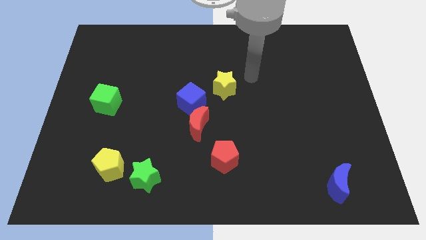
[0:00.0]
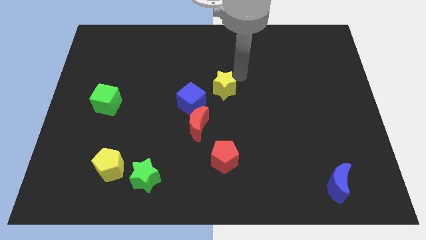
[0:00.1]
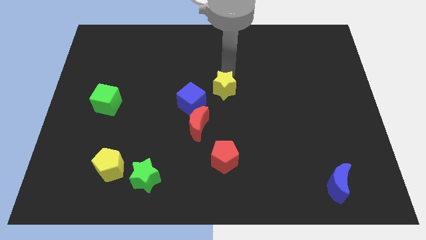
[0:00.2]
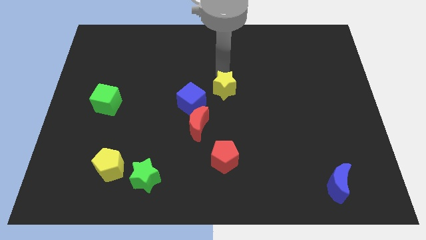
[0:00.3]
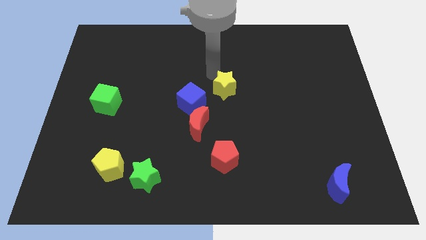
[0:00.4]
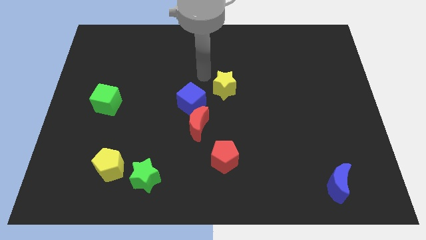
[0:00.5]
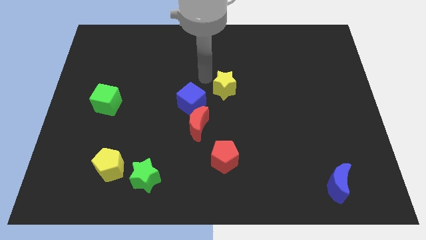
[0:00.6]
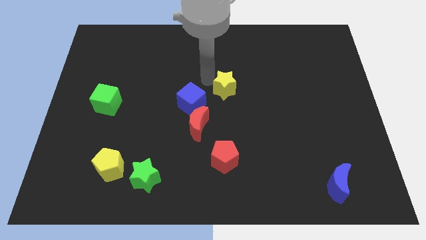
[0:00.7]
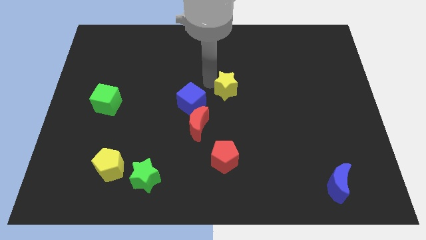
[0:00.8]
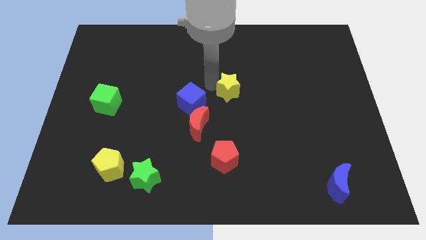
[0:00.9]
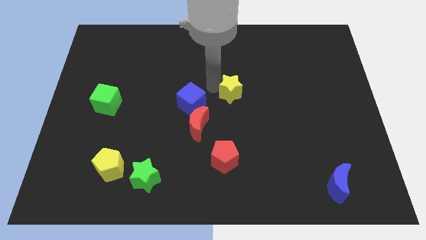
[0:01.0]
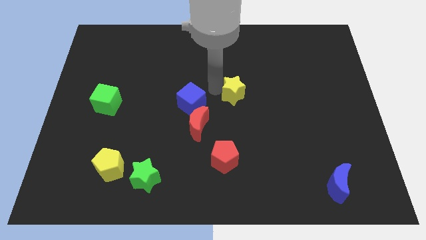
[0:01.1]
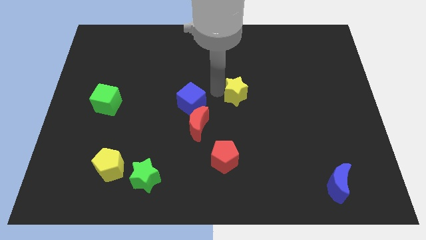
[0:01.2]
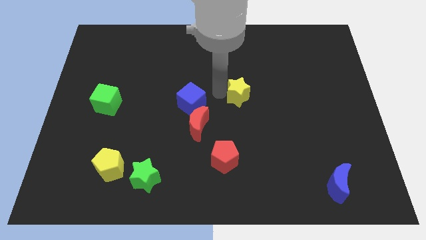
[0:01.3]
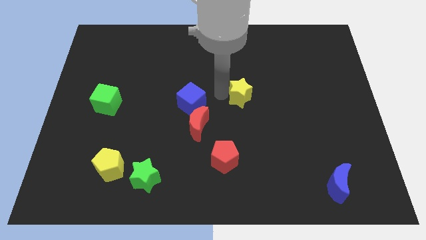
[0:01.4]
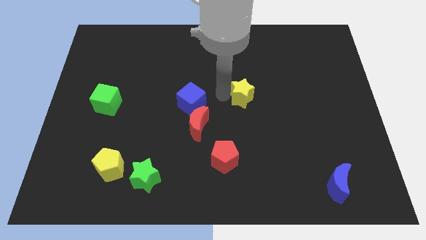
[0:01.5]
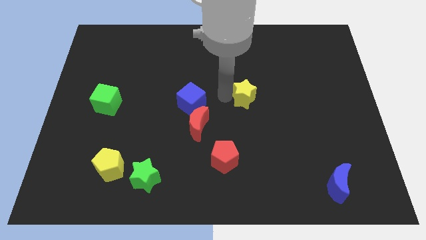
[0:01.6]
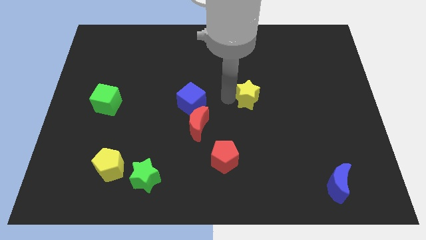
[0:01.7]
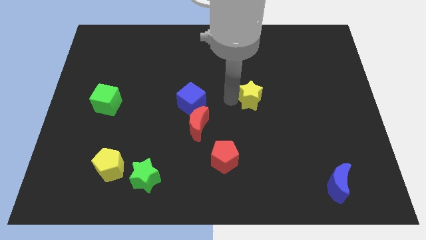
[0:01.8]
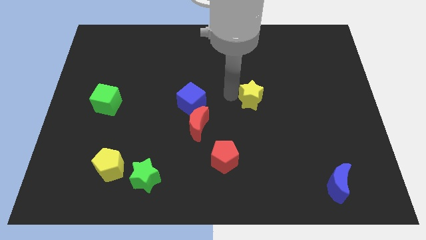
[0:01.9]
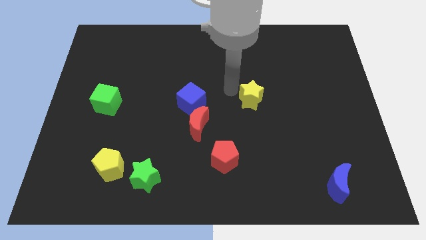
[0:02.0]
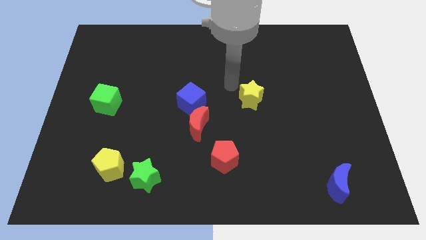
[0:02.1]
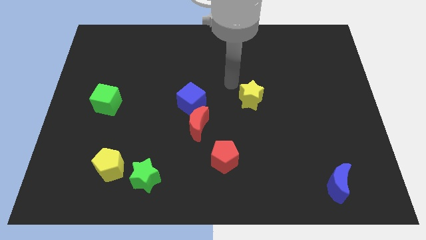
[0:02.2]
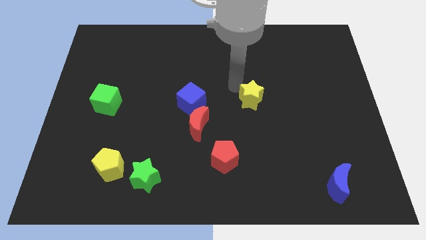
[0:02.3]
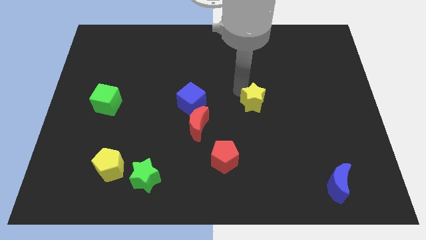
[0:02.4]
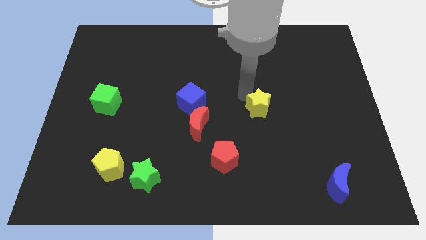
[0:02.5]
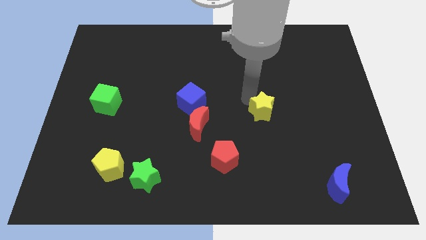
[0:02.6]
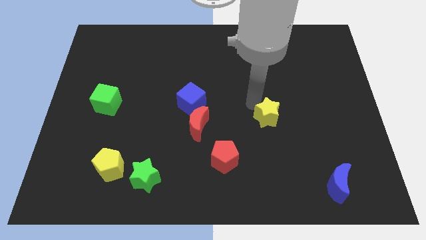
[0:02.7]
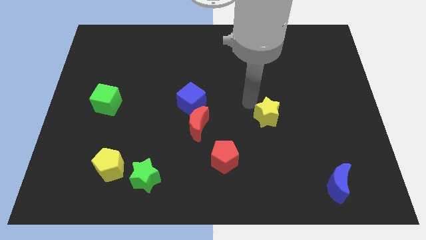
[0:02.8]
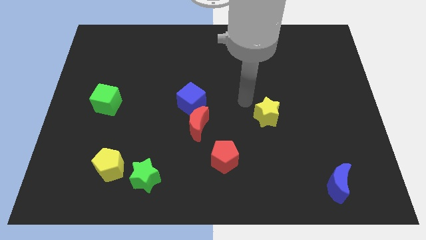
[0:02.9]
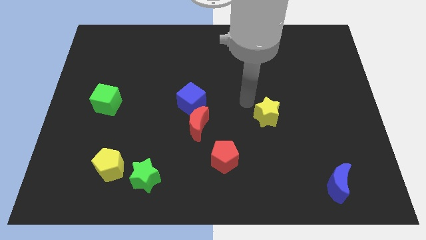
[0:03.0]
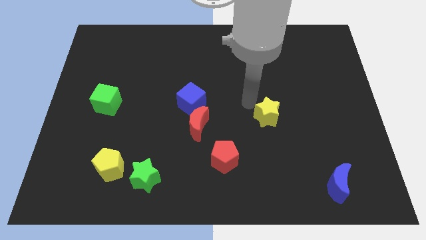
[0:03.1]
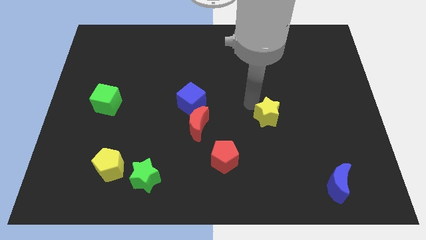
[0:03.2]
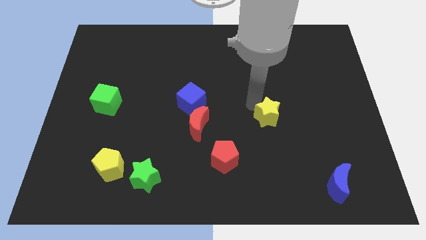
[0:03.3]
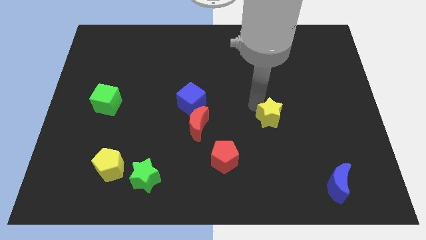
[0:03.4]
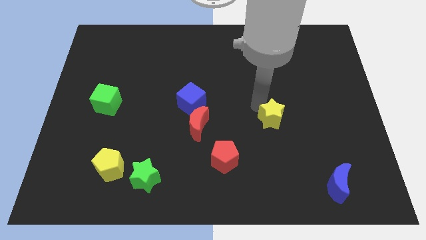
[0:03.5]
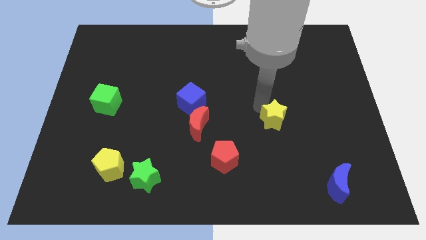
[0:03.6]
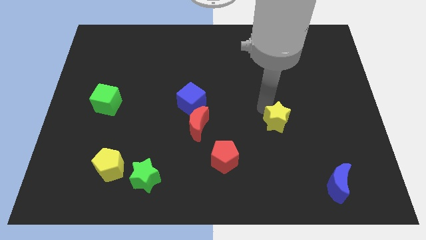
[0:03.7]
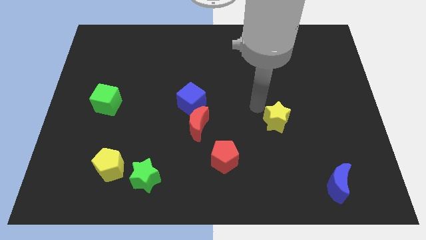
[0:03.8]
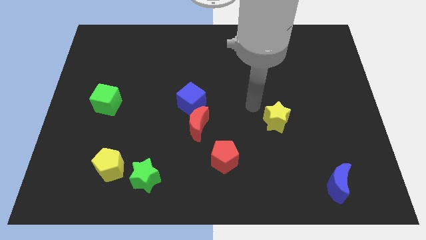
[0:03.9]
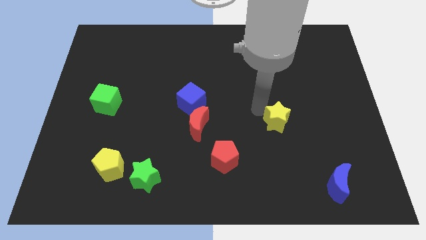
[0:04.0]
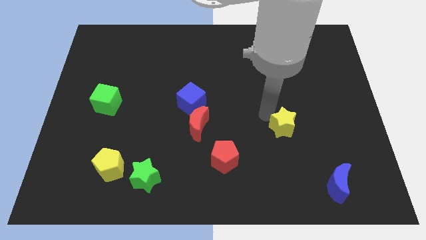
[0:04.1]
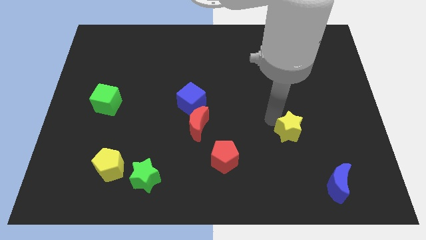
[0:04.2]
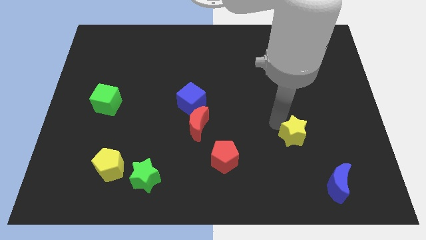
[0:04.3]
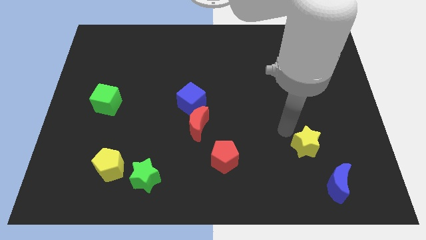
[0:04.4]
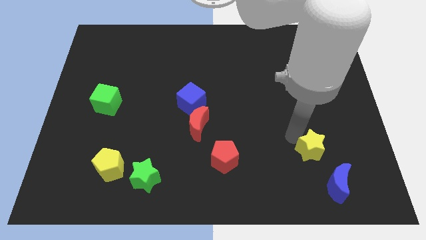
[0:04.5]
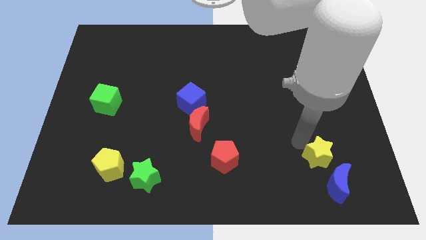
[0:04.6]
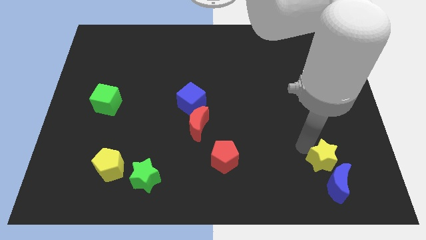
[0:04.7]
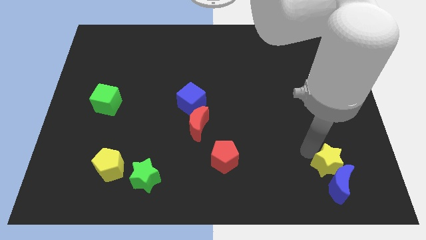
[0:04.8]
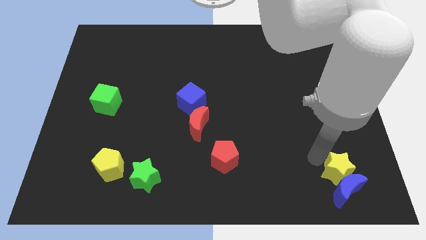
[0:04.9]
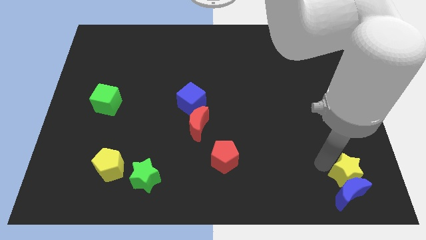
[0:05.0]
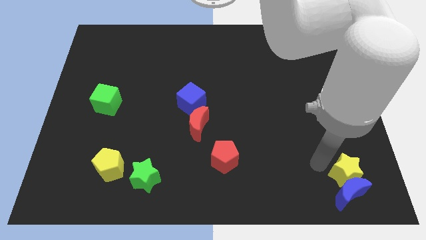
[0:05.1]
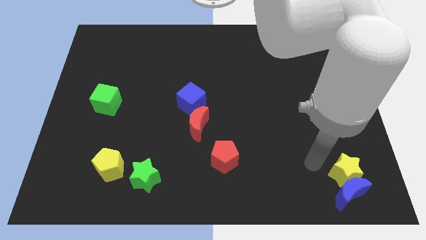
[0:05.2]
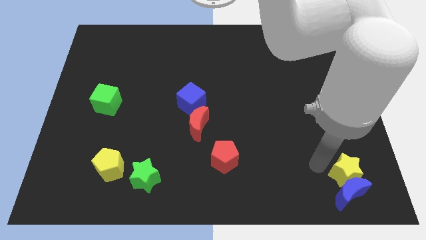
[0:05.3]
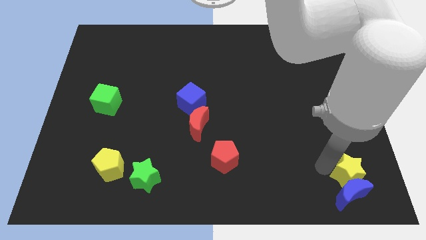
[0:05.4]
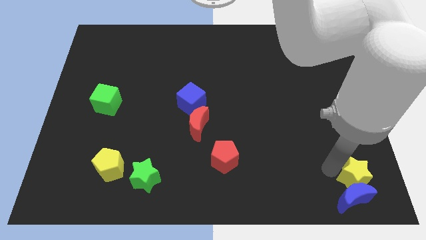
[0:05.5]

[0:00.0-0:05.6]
put the yellow star to the lower right corner
